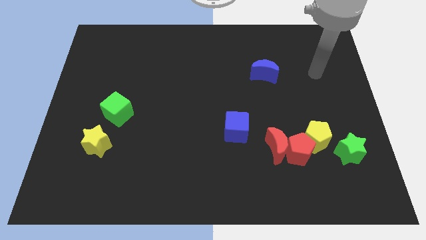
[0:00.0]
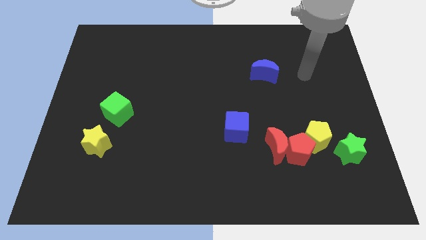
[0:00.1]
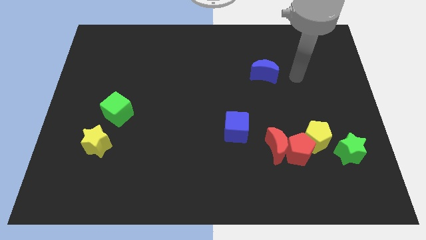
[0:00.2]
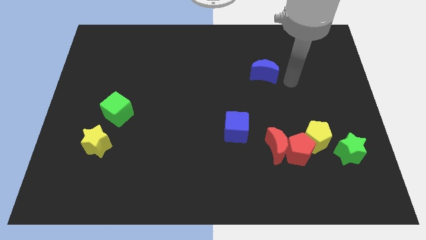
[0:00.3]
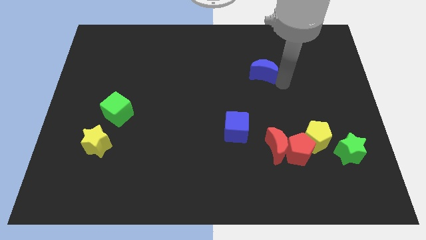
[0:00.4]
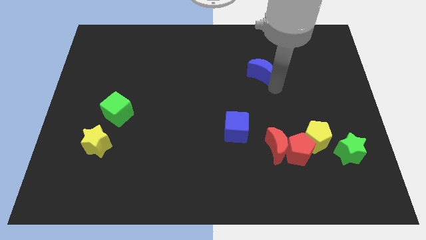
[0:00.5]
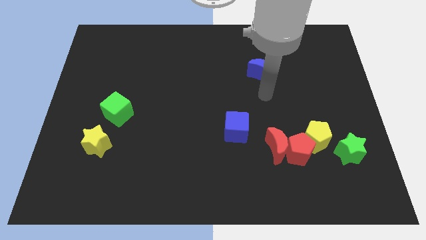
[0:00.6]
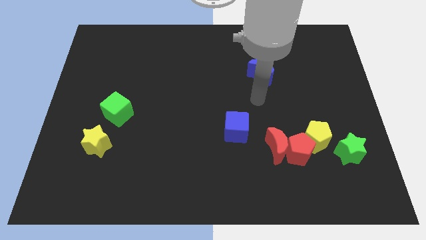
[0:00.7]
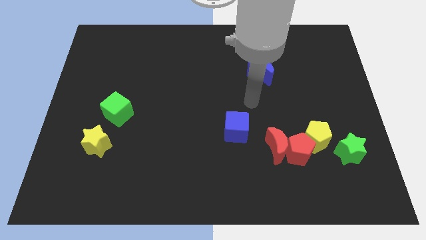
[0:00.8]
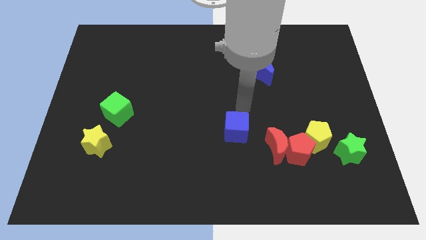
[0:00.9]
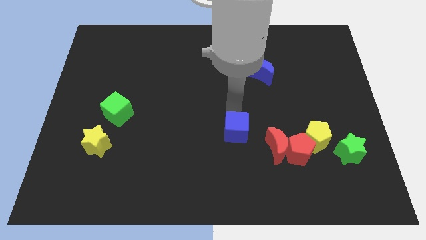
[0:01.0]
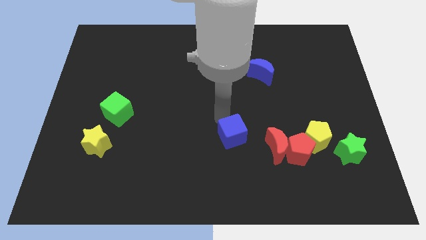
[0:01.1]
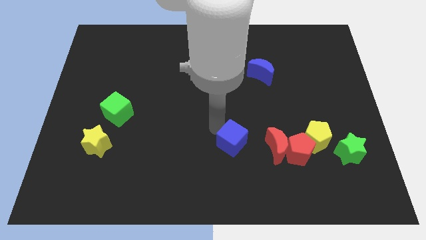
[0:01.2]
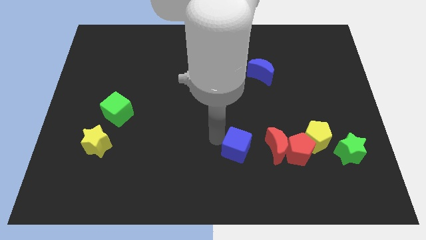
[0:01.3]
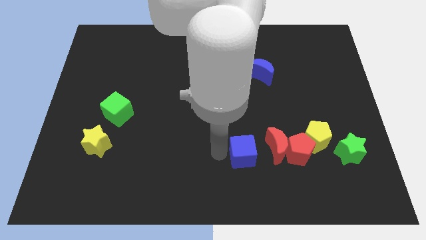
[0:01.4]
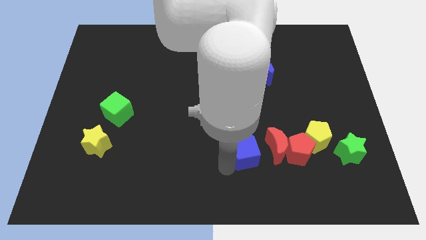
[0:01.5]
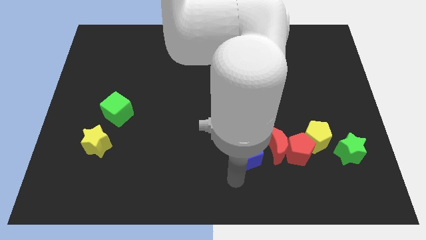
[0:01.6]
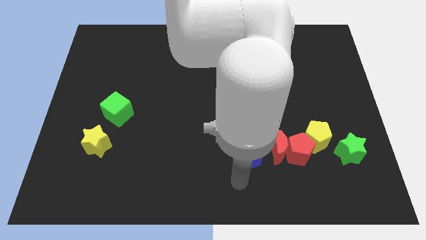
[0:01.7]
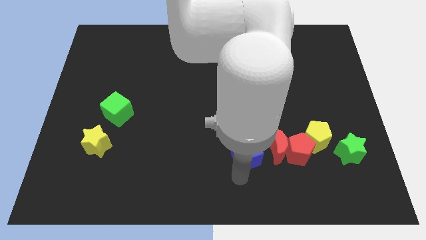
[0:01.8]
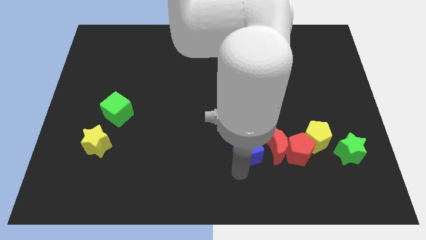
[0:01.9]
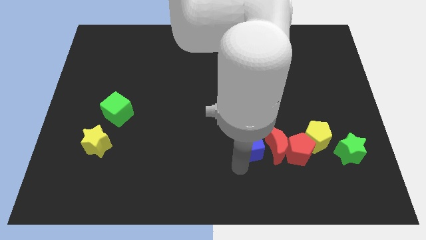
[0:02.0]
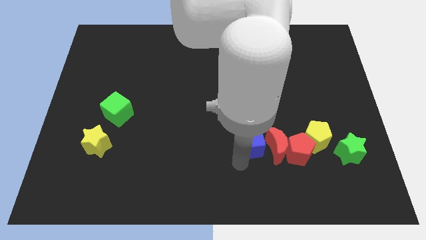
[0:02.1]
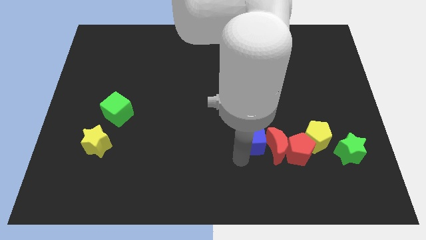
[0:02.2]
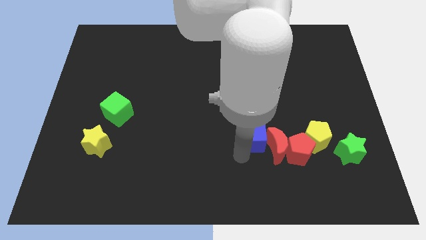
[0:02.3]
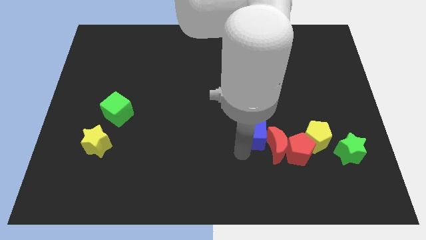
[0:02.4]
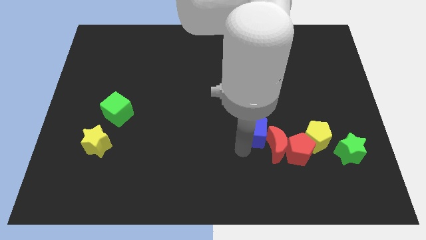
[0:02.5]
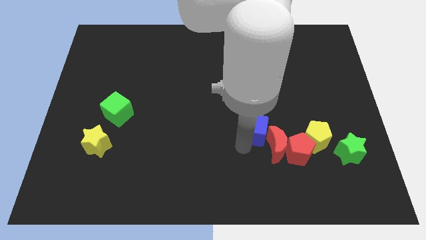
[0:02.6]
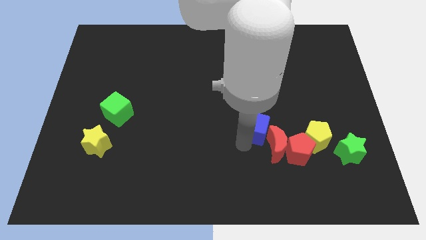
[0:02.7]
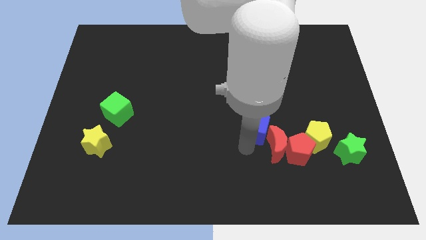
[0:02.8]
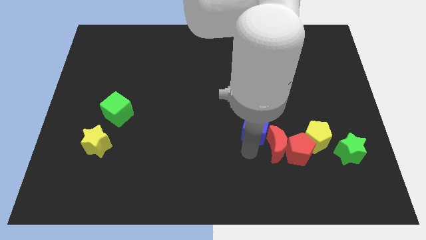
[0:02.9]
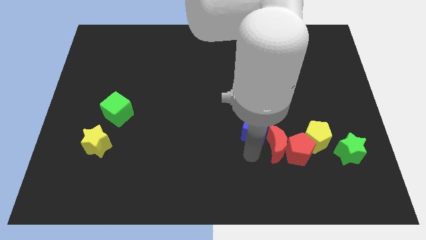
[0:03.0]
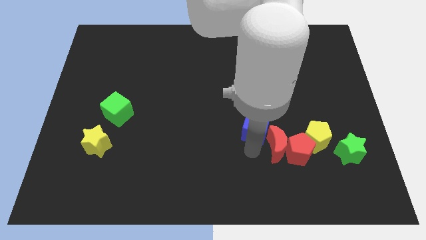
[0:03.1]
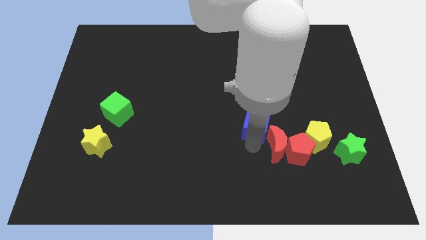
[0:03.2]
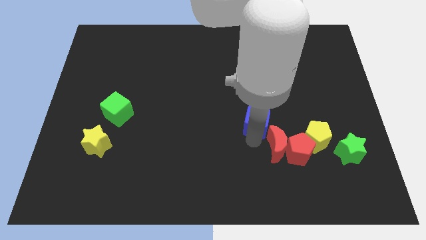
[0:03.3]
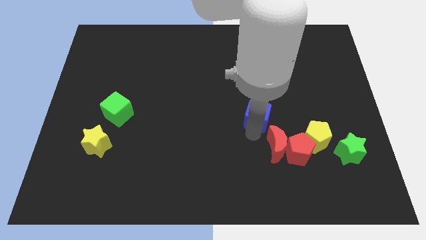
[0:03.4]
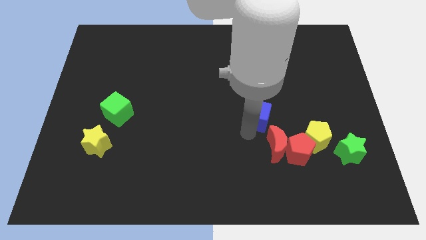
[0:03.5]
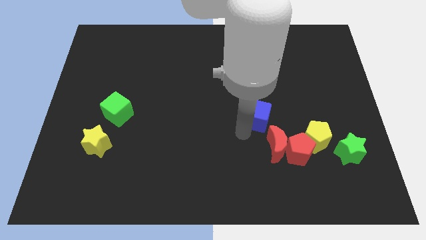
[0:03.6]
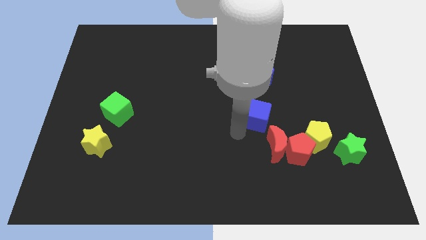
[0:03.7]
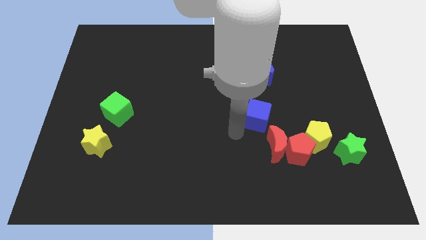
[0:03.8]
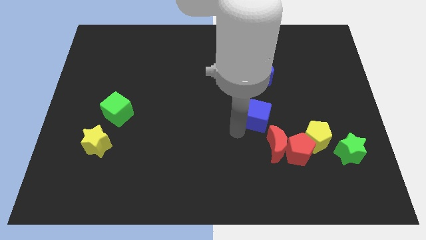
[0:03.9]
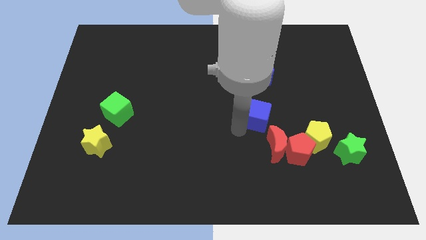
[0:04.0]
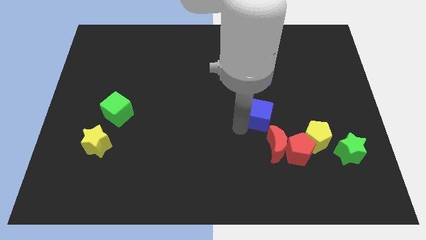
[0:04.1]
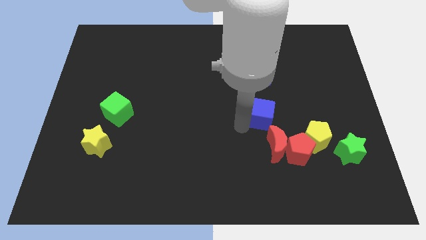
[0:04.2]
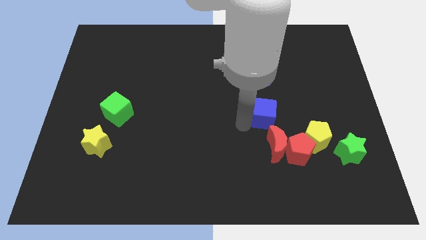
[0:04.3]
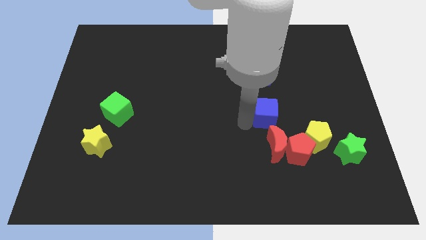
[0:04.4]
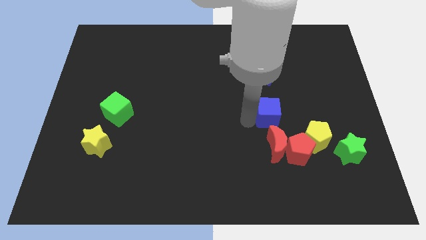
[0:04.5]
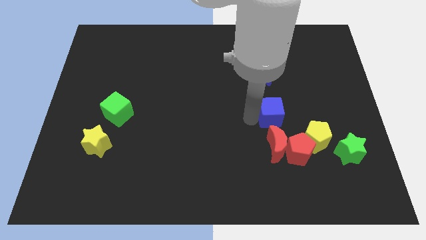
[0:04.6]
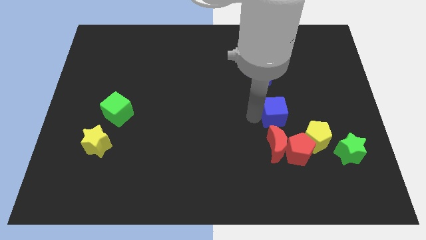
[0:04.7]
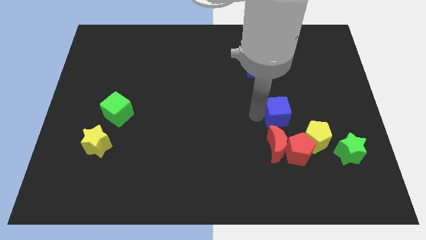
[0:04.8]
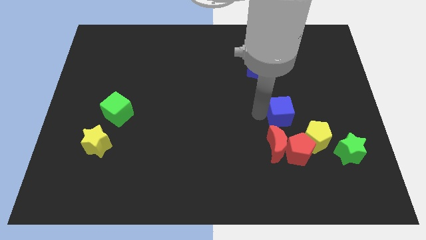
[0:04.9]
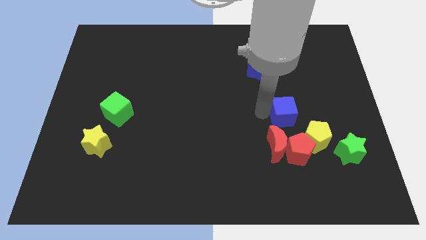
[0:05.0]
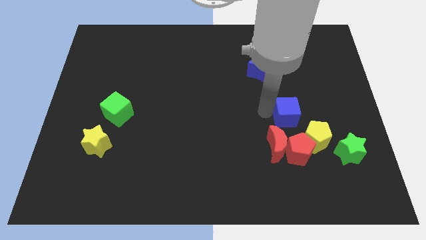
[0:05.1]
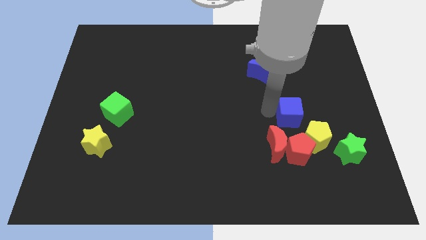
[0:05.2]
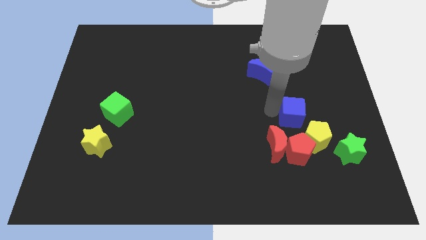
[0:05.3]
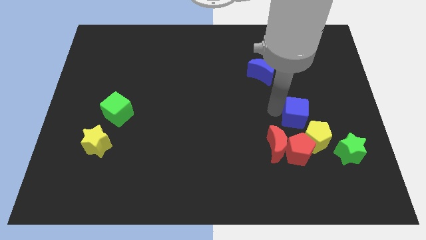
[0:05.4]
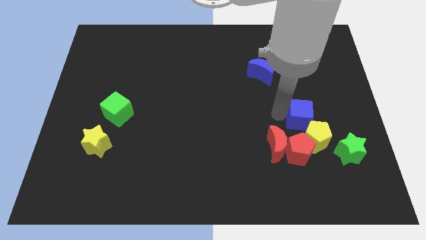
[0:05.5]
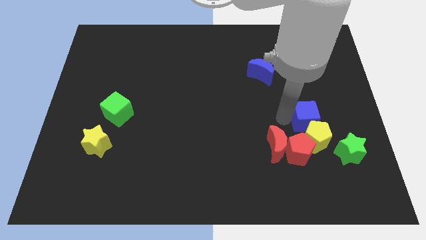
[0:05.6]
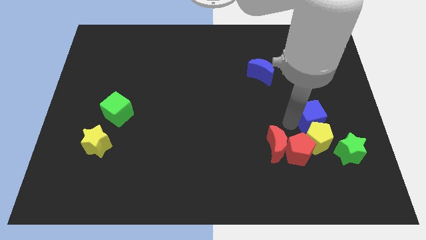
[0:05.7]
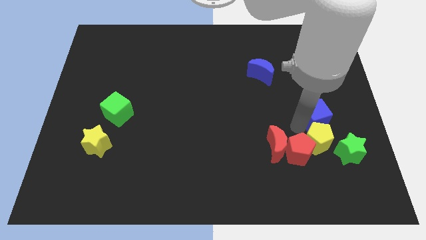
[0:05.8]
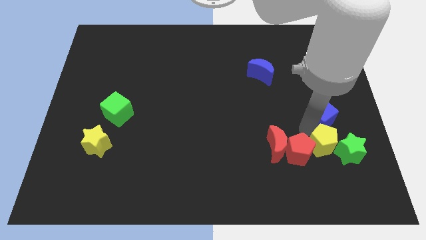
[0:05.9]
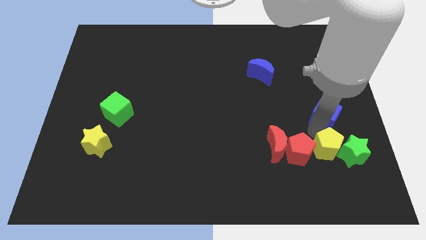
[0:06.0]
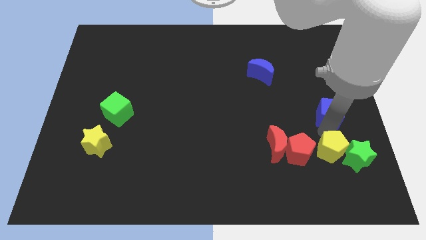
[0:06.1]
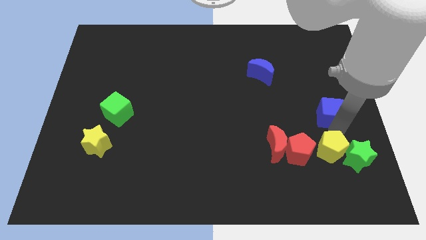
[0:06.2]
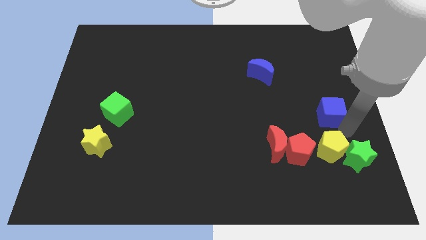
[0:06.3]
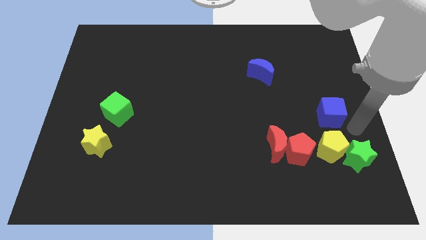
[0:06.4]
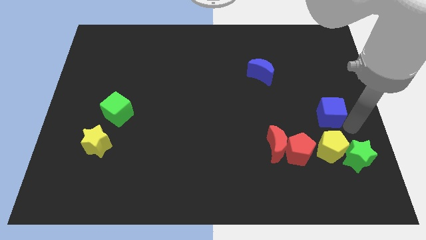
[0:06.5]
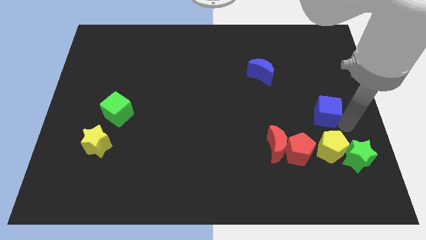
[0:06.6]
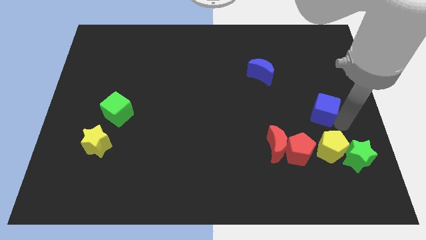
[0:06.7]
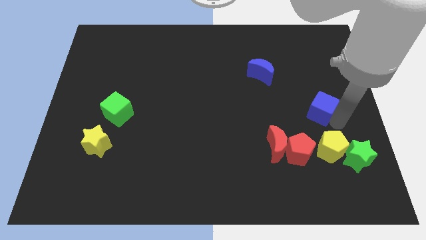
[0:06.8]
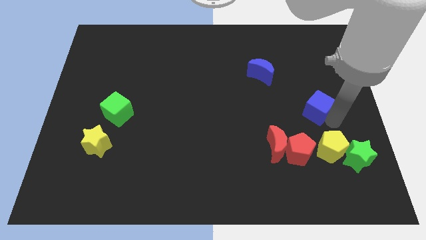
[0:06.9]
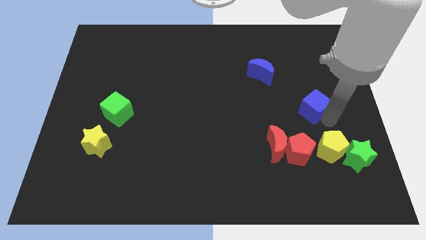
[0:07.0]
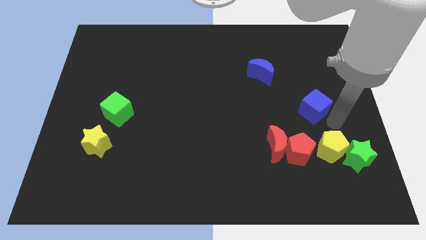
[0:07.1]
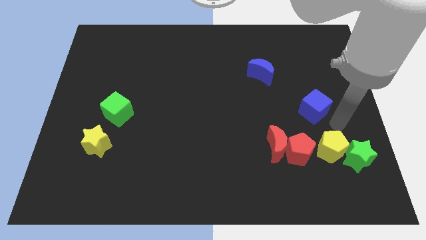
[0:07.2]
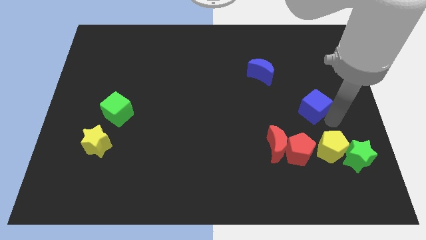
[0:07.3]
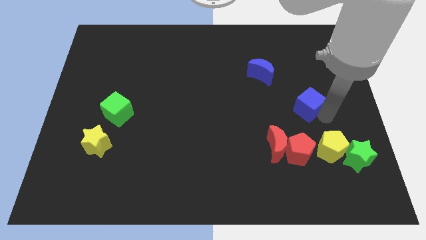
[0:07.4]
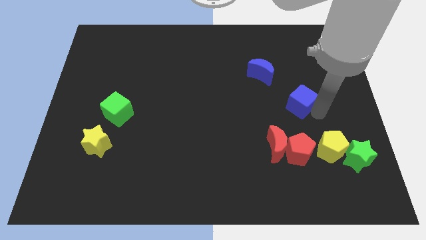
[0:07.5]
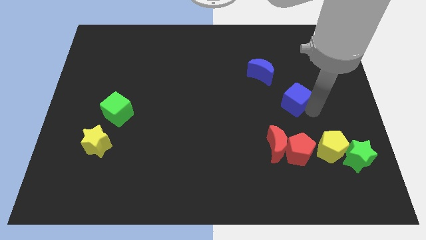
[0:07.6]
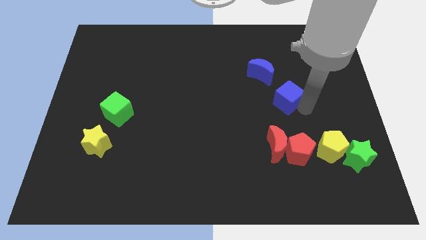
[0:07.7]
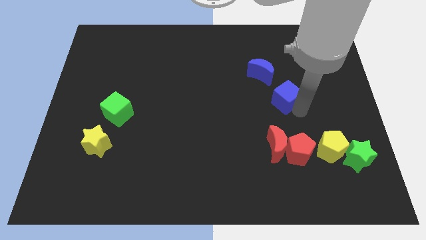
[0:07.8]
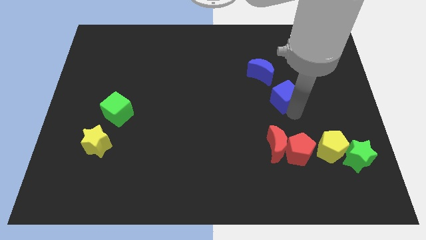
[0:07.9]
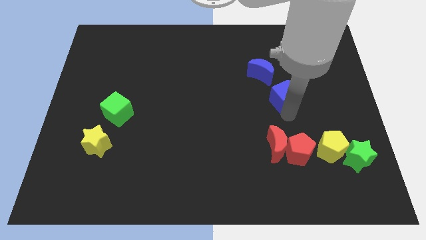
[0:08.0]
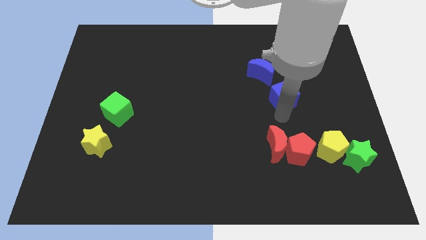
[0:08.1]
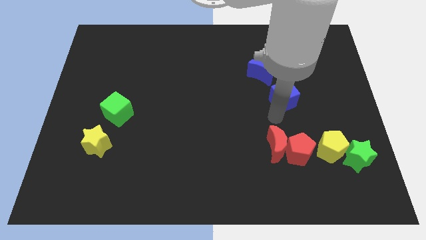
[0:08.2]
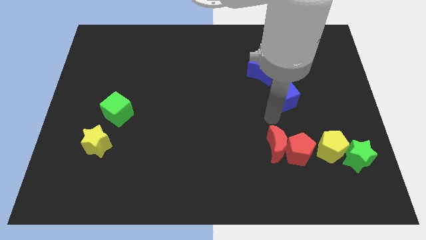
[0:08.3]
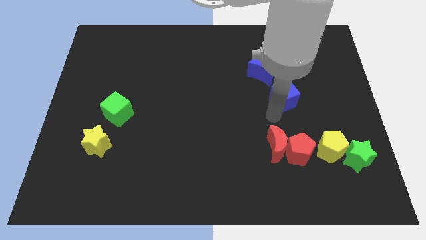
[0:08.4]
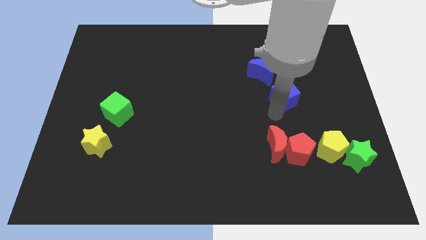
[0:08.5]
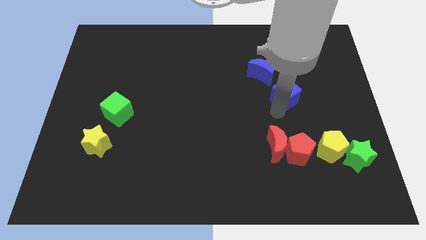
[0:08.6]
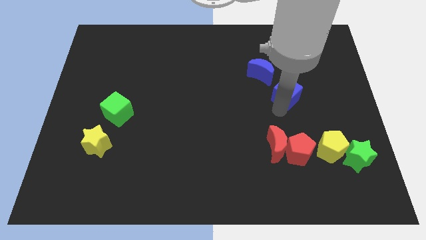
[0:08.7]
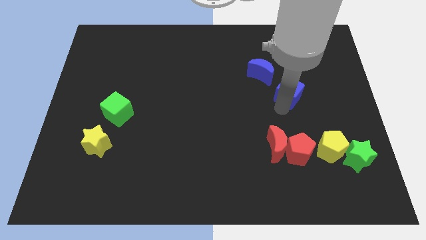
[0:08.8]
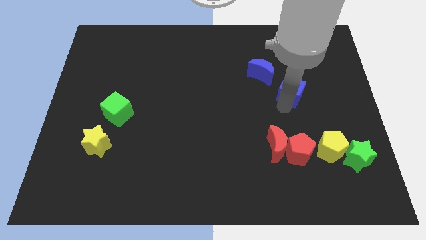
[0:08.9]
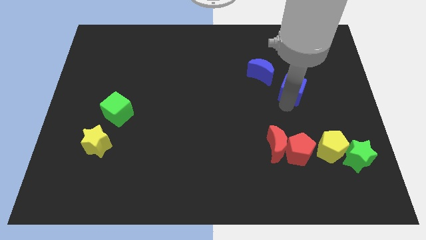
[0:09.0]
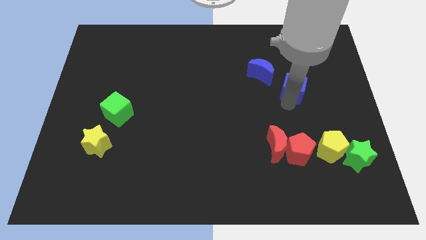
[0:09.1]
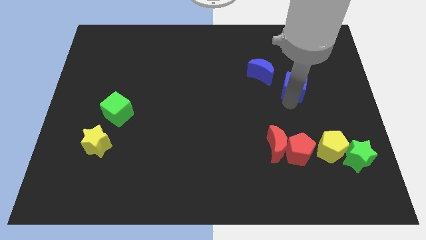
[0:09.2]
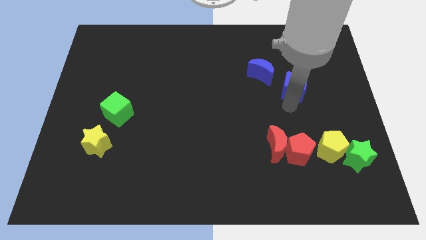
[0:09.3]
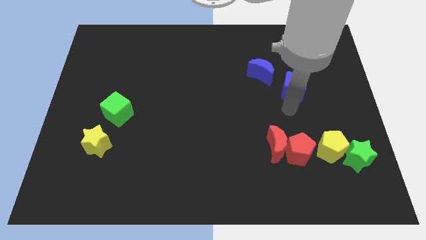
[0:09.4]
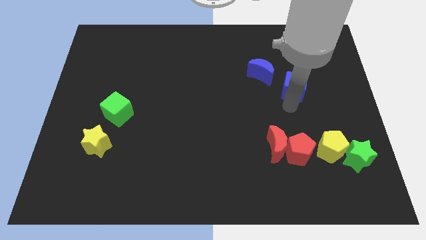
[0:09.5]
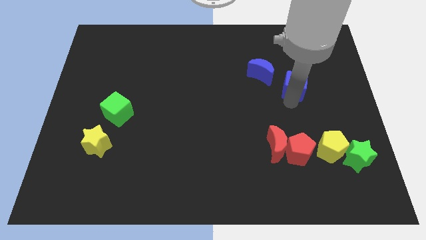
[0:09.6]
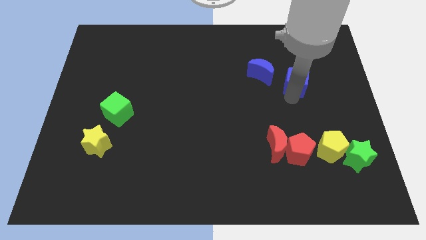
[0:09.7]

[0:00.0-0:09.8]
push the blue cube up and then right
